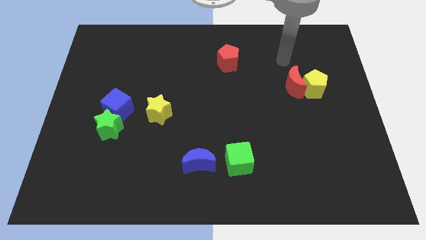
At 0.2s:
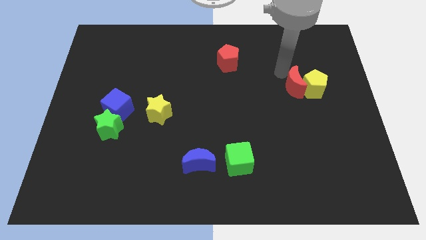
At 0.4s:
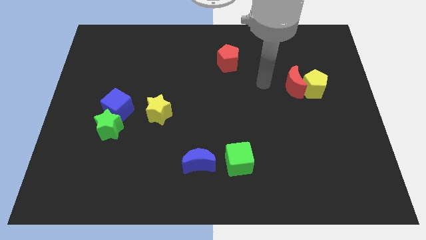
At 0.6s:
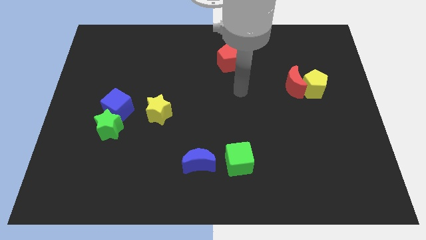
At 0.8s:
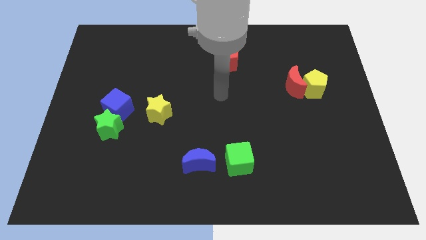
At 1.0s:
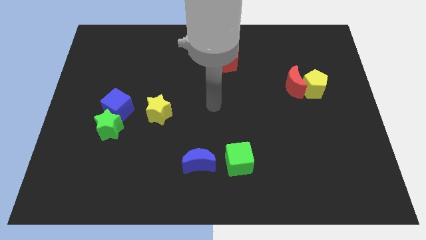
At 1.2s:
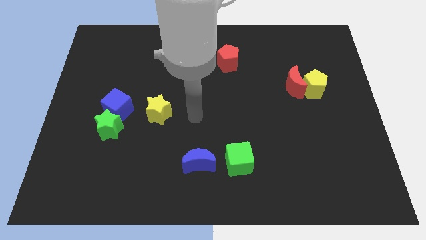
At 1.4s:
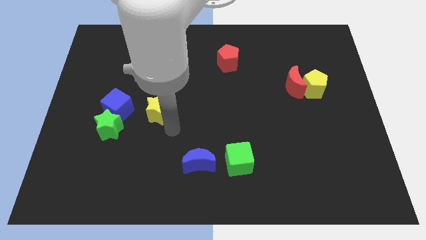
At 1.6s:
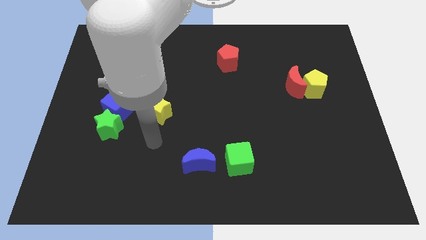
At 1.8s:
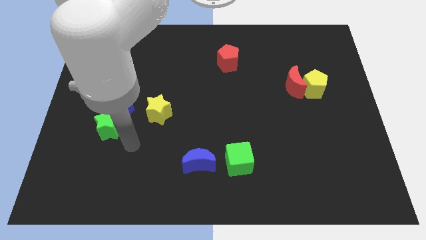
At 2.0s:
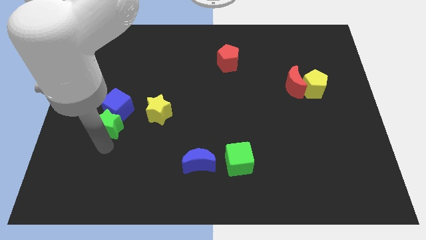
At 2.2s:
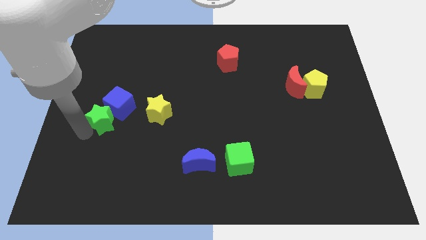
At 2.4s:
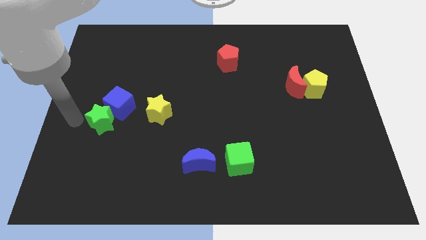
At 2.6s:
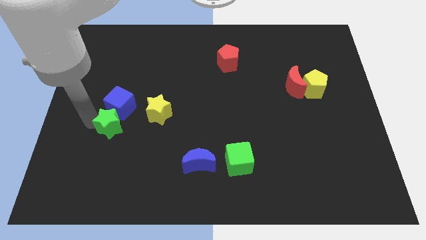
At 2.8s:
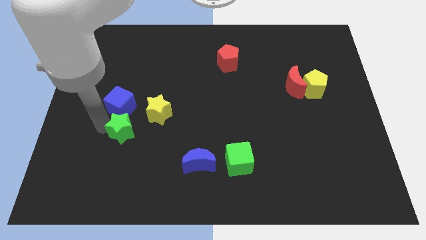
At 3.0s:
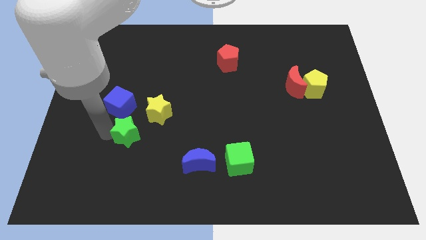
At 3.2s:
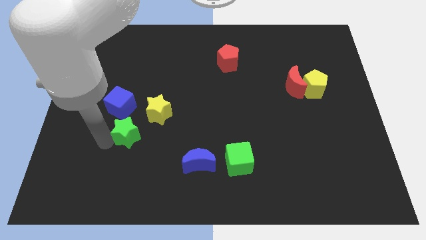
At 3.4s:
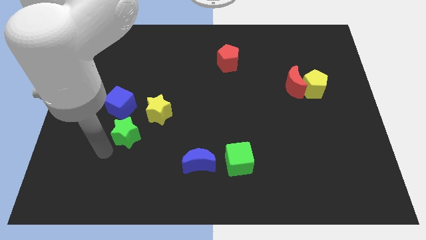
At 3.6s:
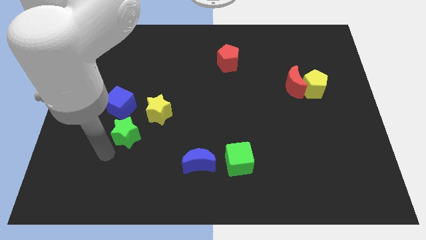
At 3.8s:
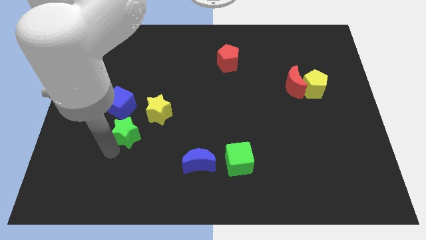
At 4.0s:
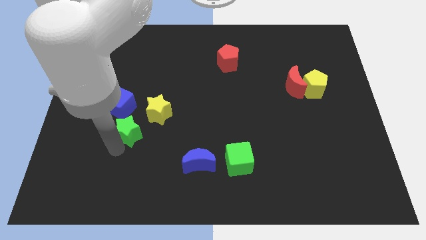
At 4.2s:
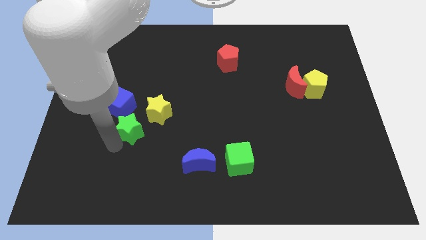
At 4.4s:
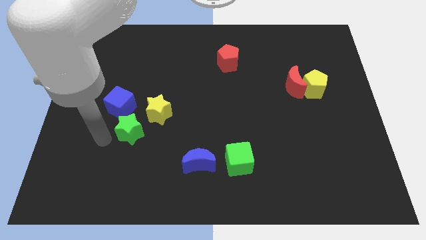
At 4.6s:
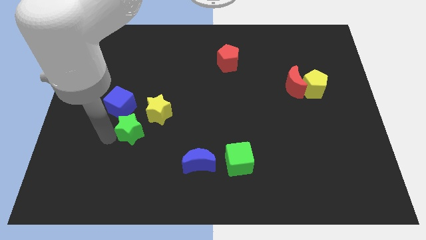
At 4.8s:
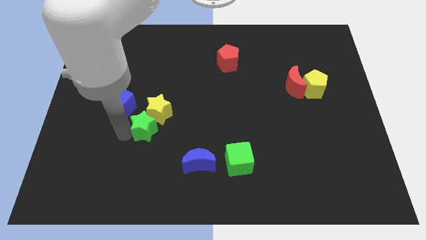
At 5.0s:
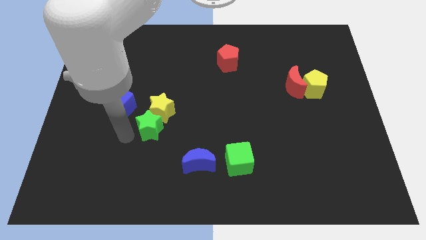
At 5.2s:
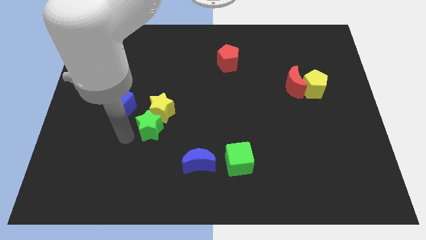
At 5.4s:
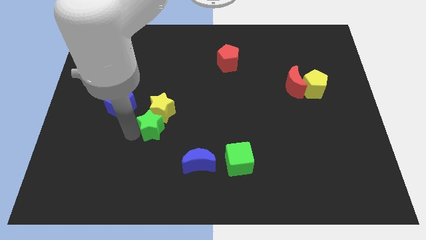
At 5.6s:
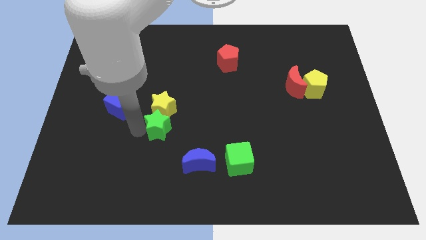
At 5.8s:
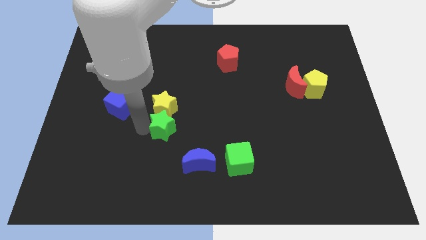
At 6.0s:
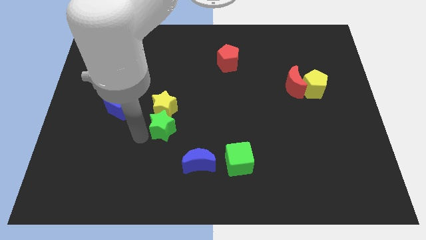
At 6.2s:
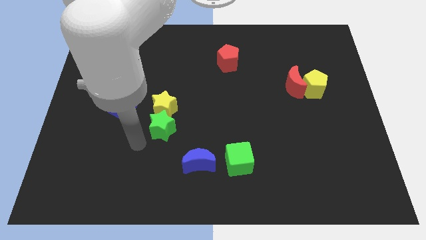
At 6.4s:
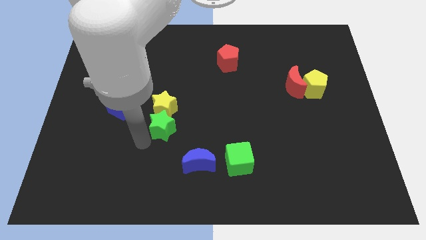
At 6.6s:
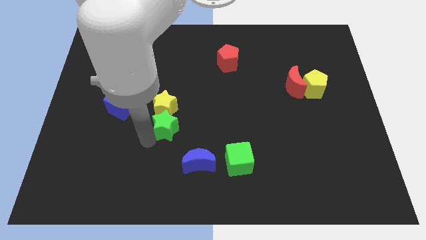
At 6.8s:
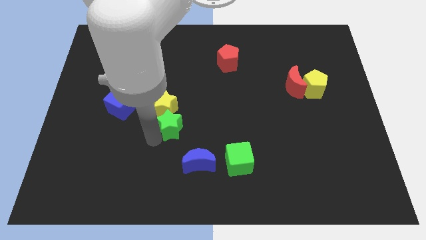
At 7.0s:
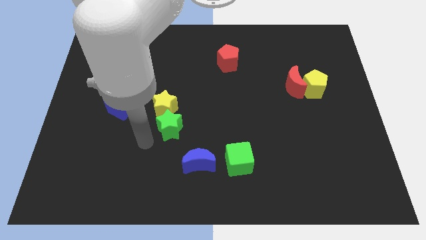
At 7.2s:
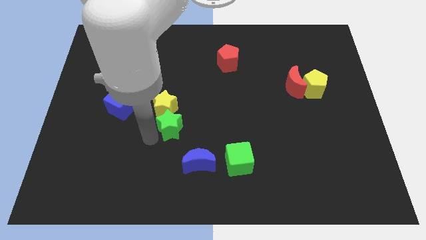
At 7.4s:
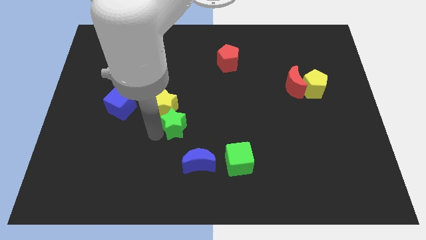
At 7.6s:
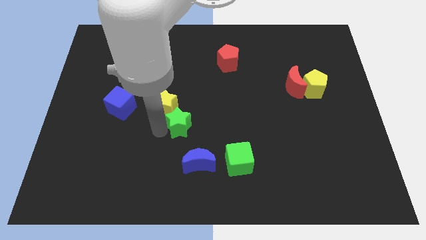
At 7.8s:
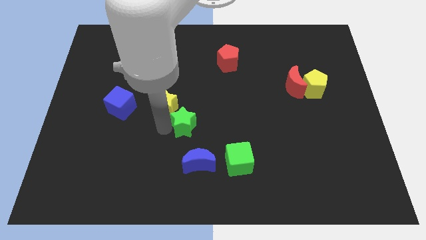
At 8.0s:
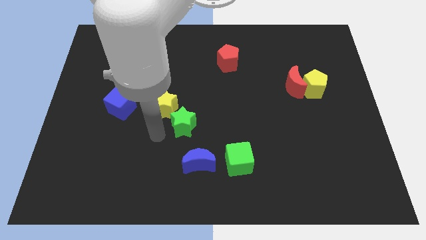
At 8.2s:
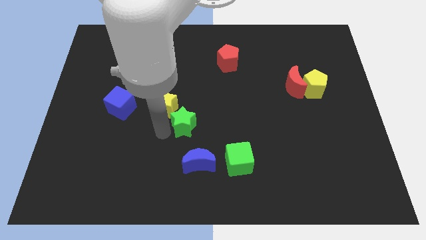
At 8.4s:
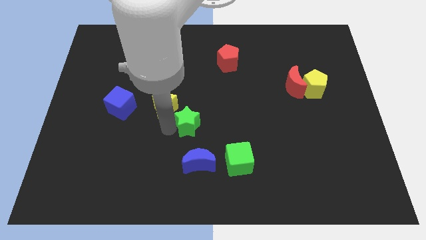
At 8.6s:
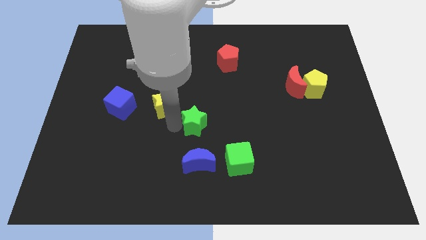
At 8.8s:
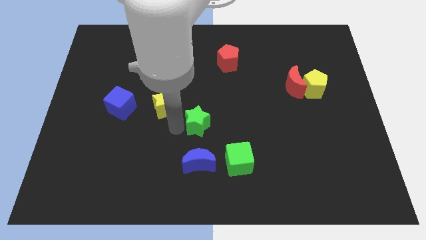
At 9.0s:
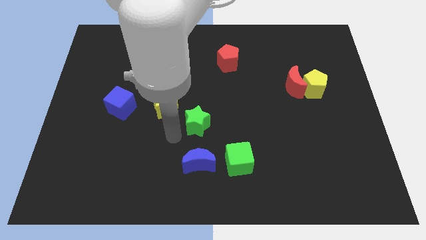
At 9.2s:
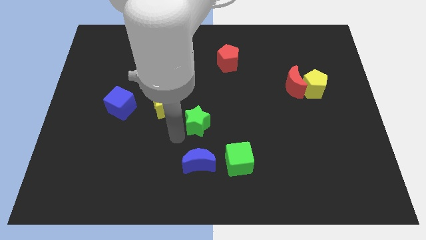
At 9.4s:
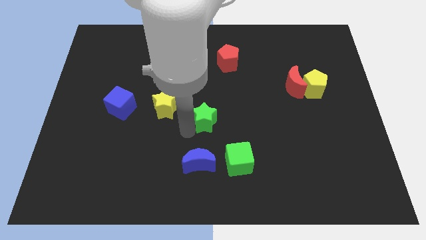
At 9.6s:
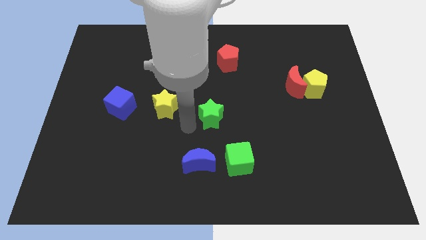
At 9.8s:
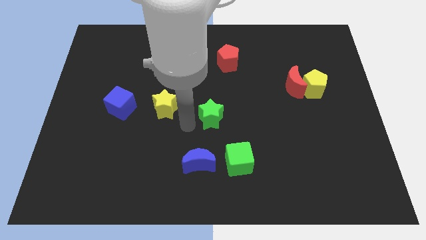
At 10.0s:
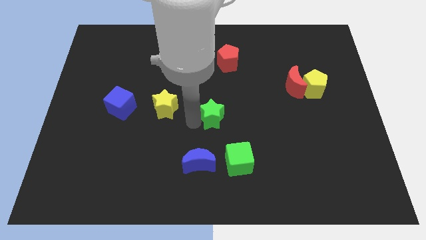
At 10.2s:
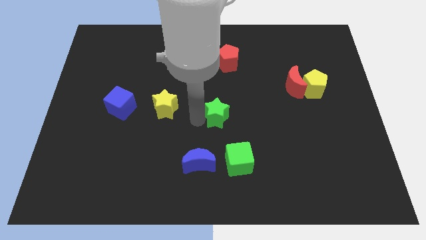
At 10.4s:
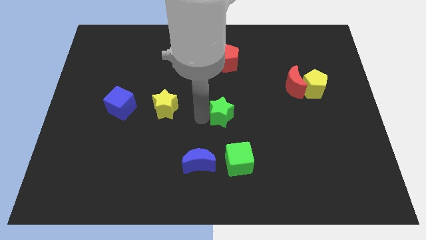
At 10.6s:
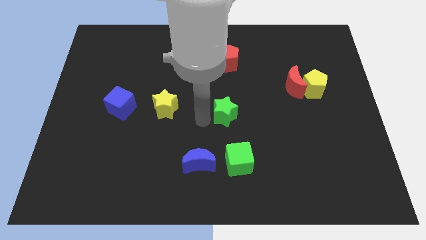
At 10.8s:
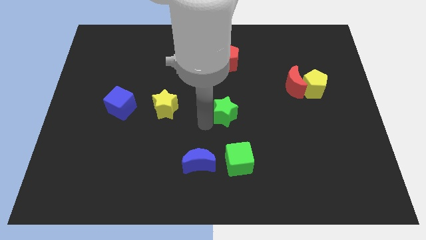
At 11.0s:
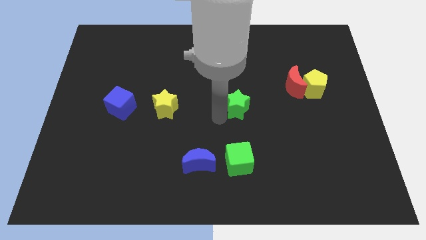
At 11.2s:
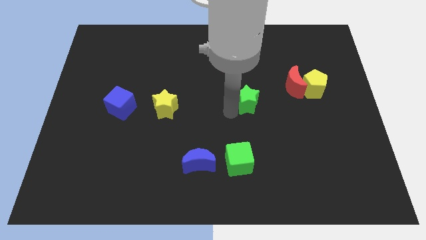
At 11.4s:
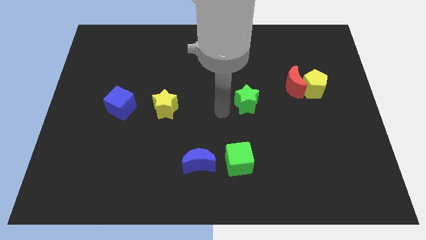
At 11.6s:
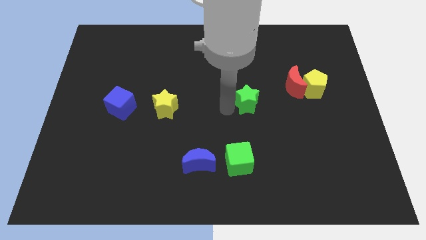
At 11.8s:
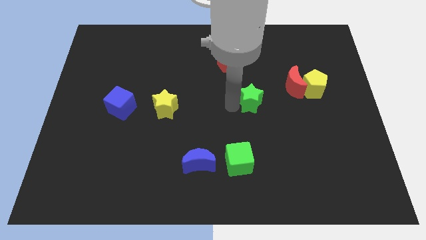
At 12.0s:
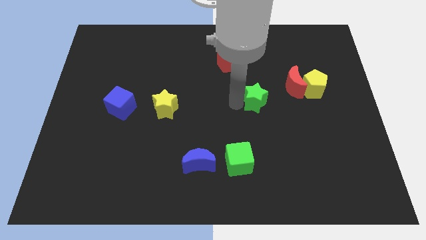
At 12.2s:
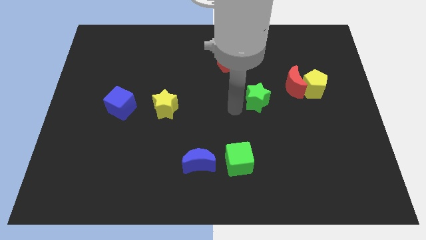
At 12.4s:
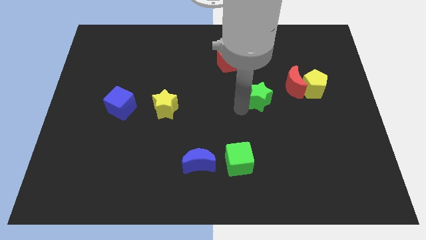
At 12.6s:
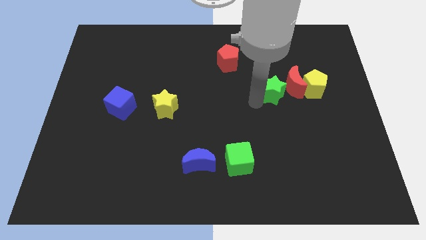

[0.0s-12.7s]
slide the green star next to the red moon

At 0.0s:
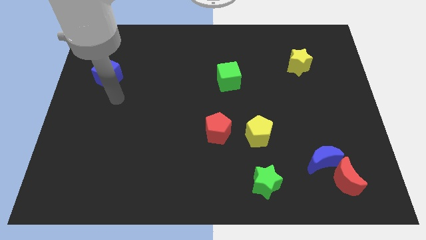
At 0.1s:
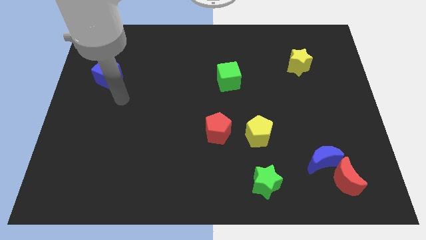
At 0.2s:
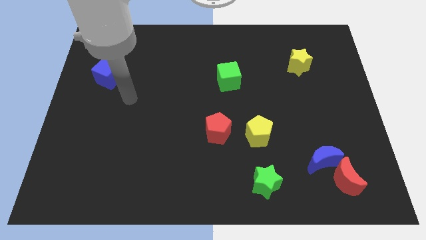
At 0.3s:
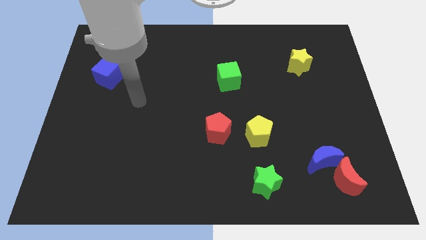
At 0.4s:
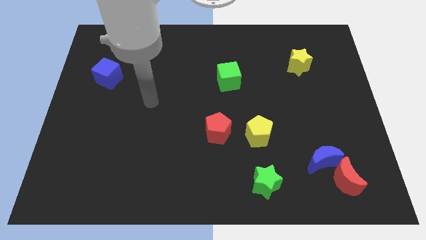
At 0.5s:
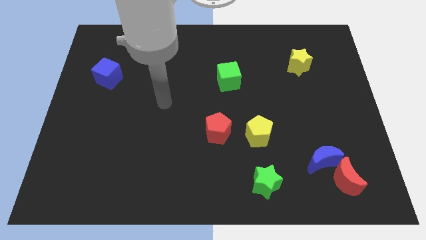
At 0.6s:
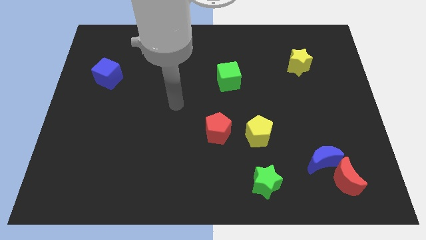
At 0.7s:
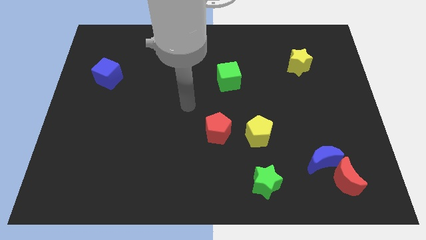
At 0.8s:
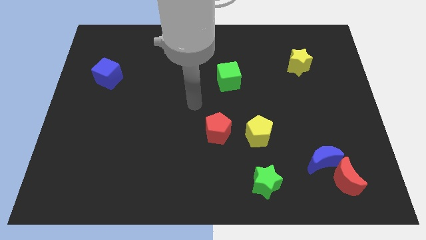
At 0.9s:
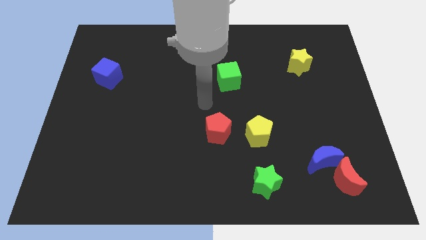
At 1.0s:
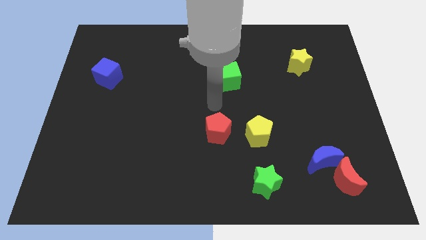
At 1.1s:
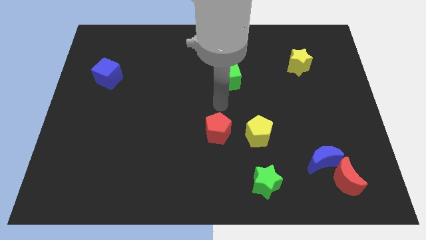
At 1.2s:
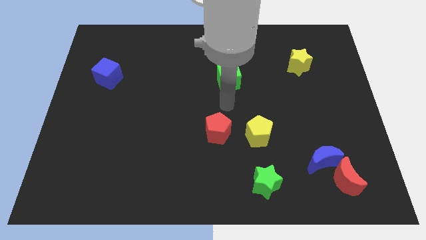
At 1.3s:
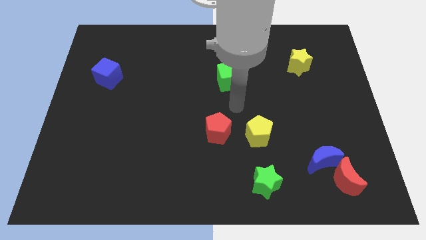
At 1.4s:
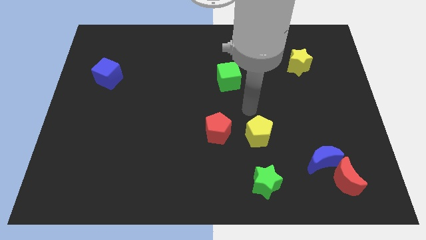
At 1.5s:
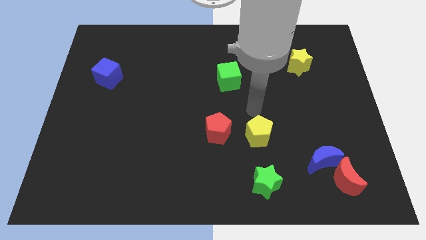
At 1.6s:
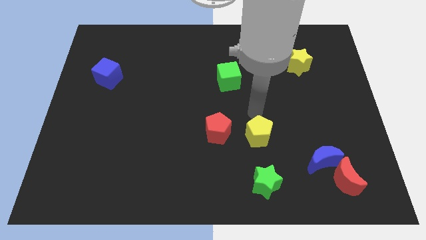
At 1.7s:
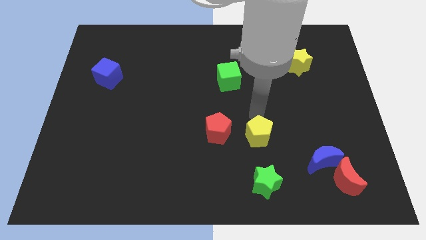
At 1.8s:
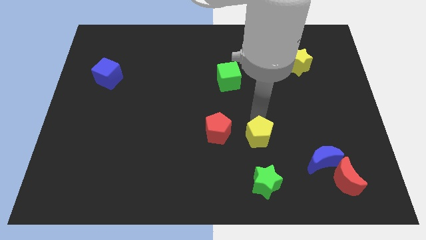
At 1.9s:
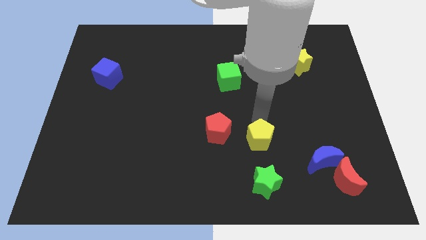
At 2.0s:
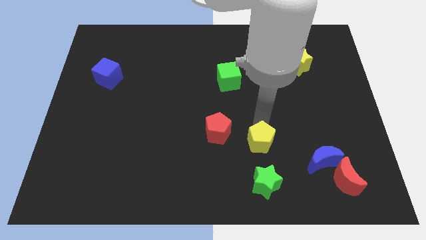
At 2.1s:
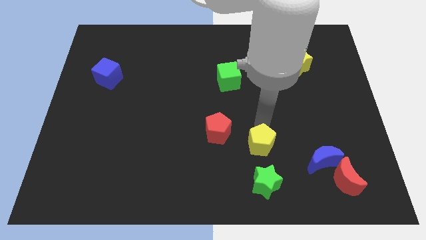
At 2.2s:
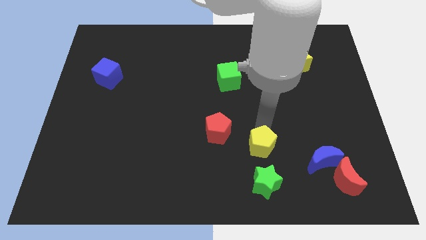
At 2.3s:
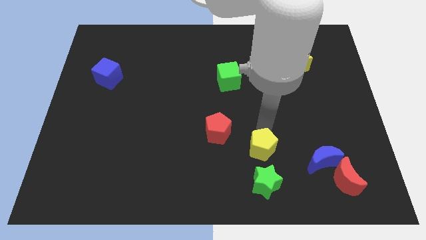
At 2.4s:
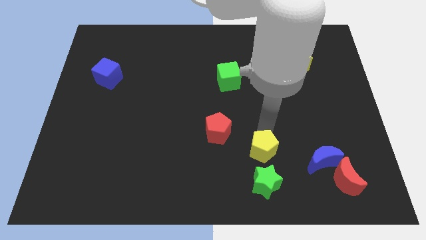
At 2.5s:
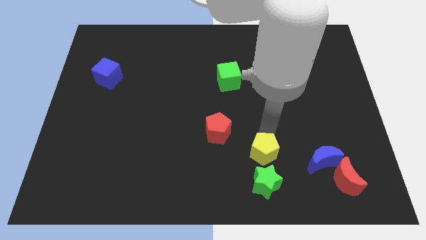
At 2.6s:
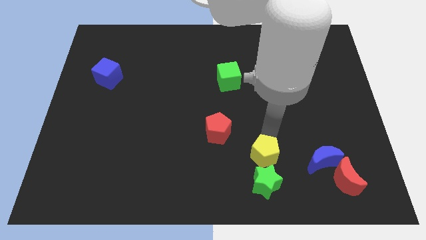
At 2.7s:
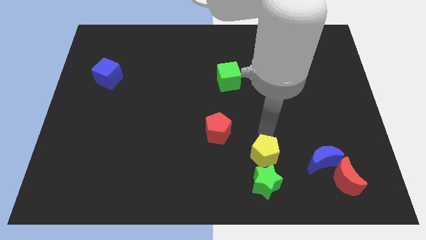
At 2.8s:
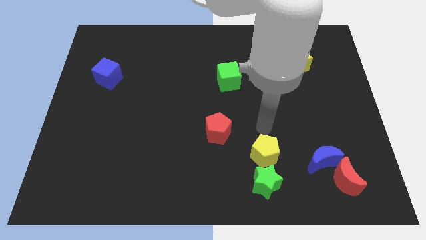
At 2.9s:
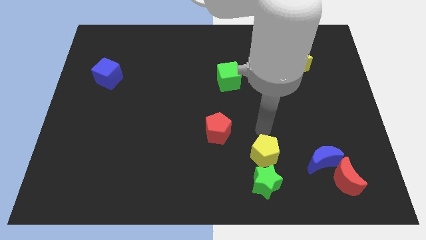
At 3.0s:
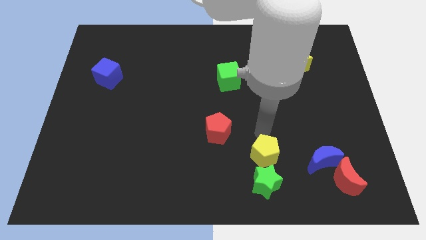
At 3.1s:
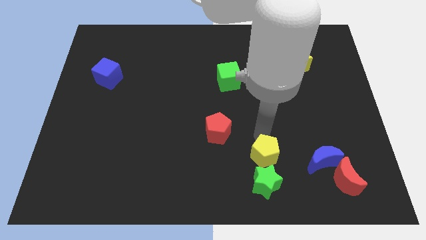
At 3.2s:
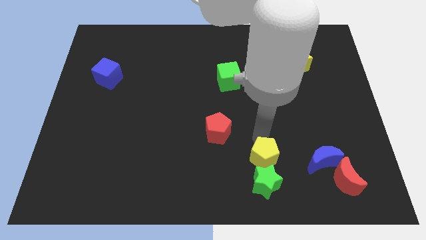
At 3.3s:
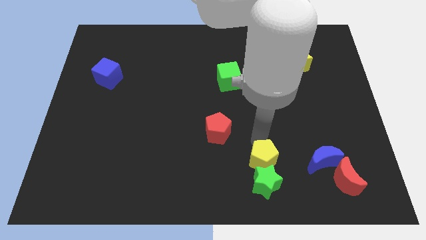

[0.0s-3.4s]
slide the yellow pentagon to the green star
